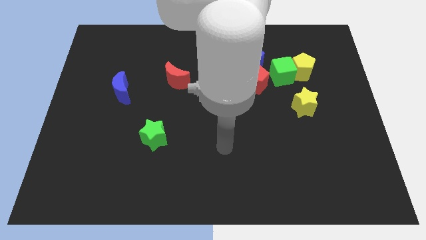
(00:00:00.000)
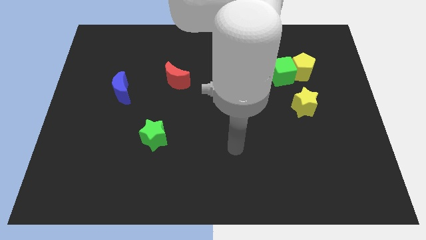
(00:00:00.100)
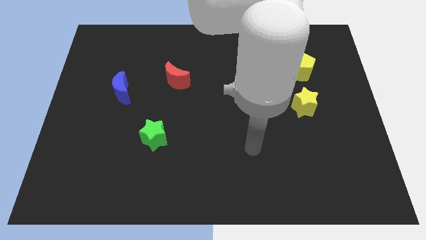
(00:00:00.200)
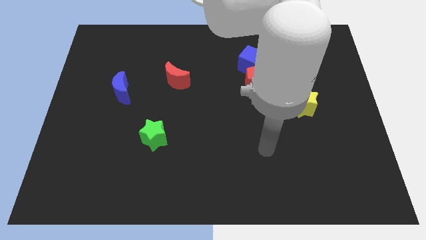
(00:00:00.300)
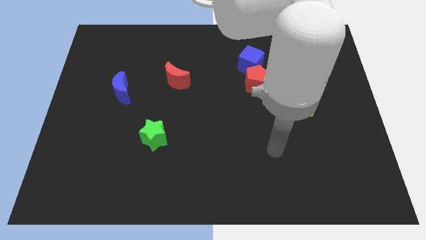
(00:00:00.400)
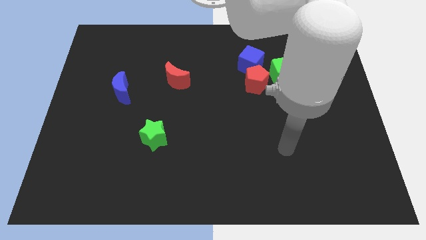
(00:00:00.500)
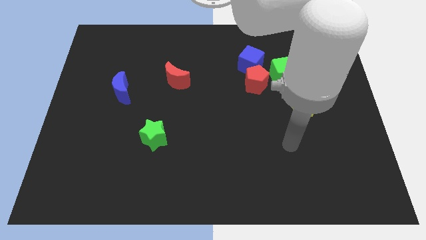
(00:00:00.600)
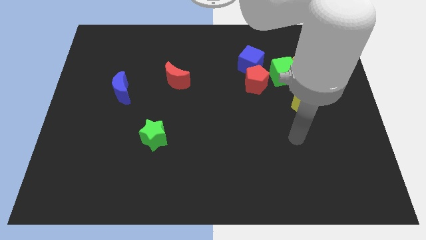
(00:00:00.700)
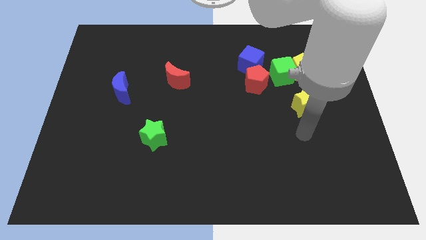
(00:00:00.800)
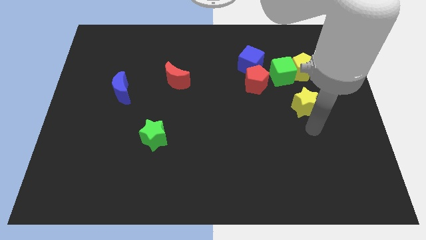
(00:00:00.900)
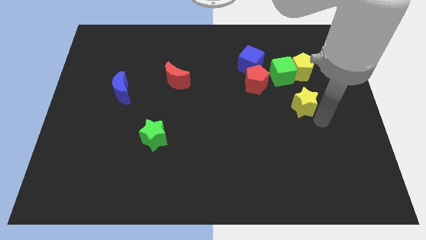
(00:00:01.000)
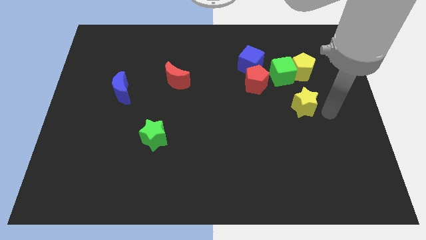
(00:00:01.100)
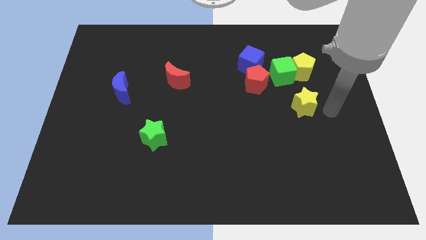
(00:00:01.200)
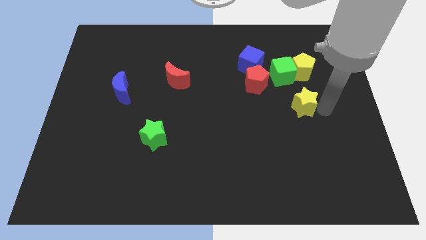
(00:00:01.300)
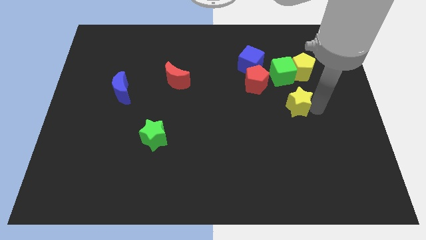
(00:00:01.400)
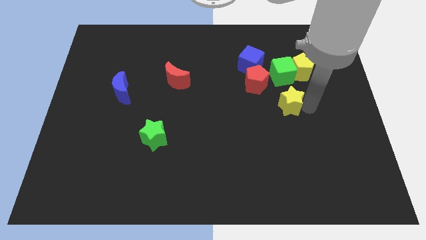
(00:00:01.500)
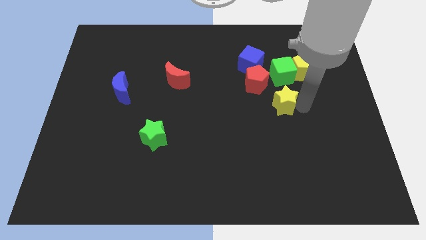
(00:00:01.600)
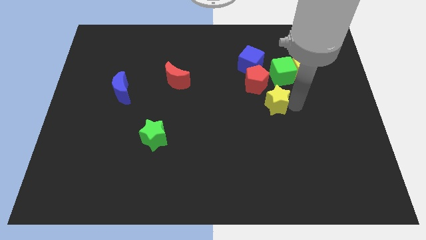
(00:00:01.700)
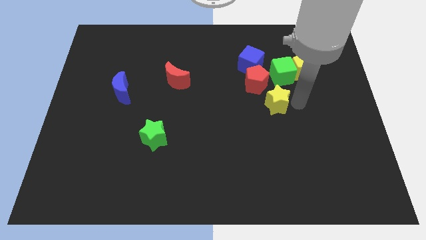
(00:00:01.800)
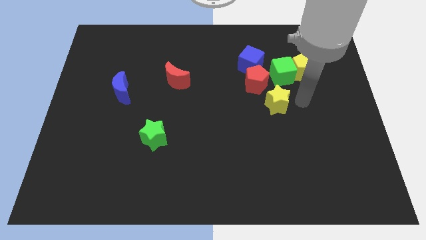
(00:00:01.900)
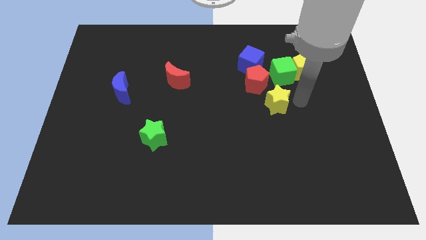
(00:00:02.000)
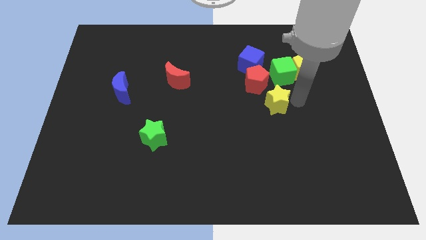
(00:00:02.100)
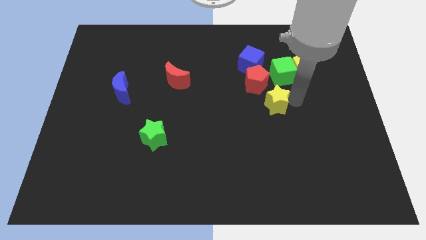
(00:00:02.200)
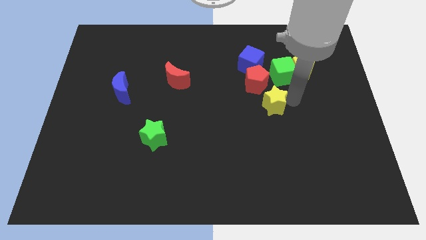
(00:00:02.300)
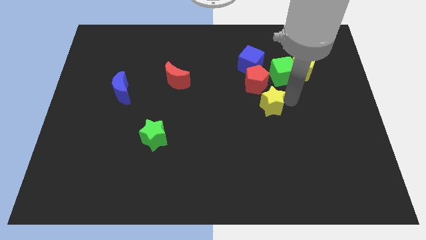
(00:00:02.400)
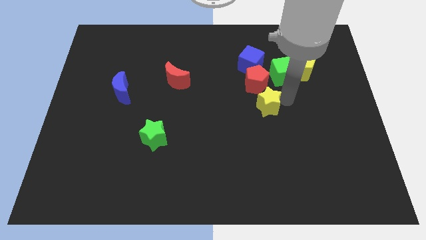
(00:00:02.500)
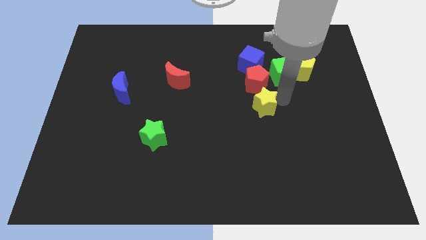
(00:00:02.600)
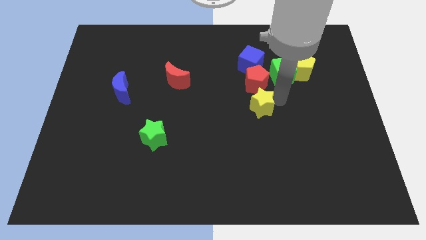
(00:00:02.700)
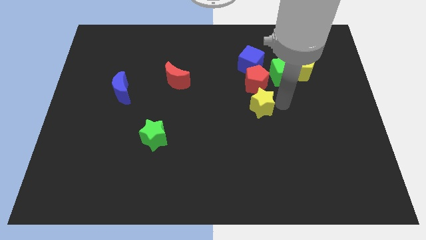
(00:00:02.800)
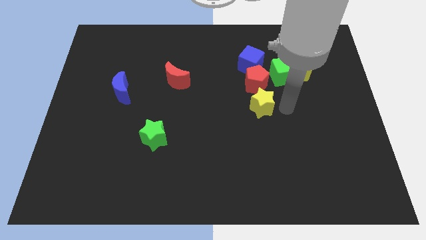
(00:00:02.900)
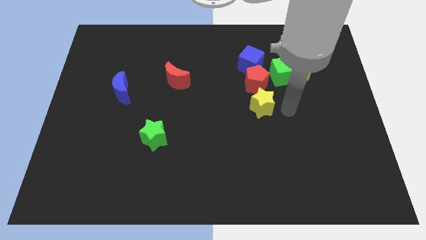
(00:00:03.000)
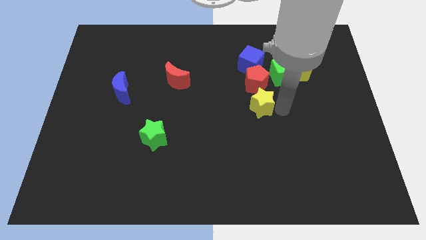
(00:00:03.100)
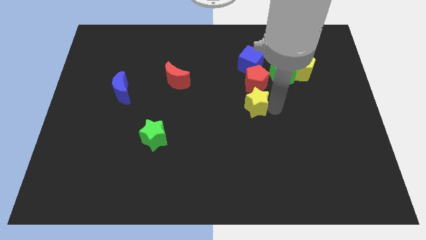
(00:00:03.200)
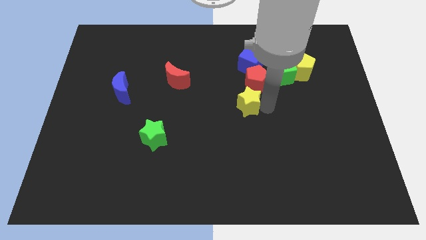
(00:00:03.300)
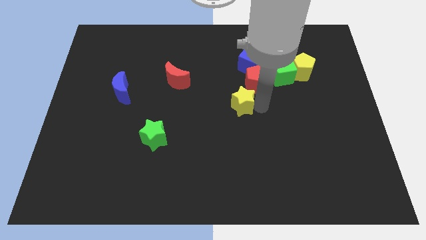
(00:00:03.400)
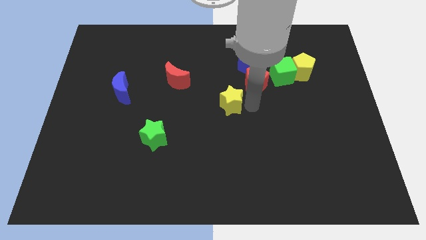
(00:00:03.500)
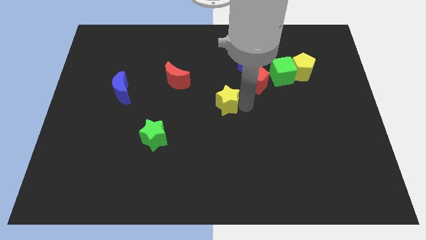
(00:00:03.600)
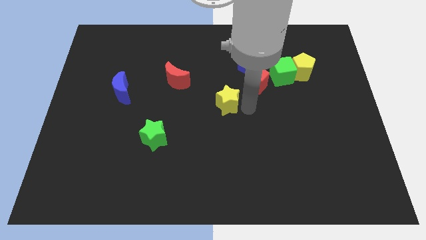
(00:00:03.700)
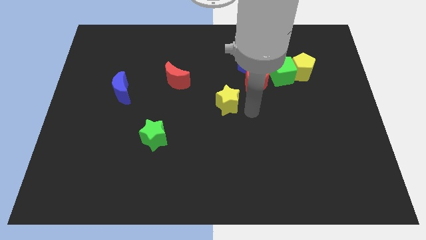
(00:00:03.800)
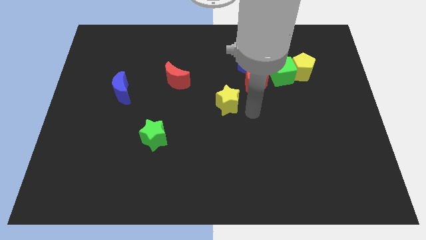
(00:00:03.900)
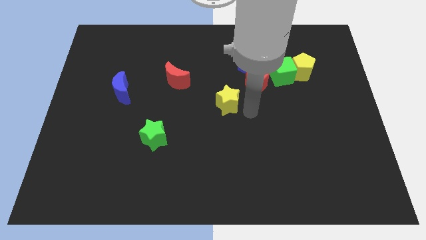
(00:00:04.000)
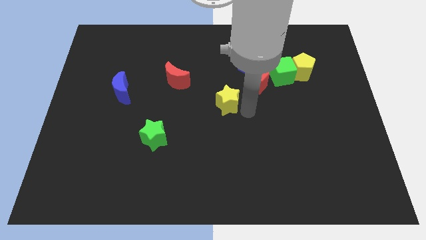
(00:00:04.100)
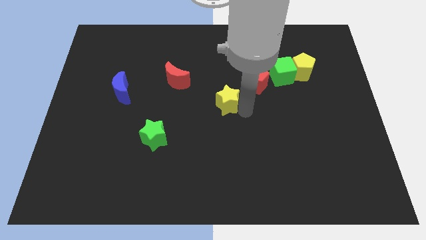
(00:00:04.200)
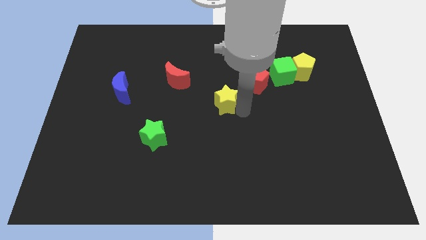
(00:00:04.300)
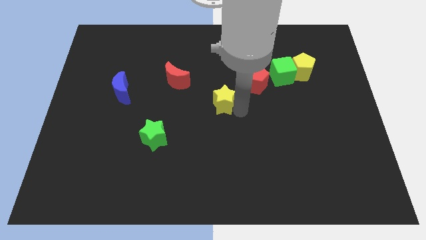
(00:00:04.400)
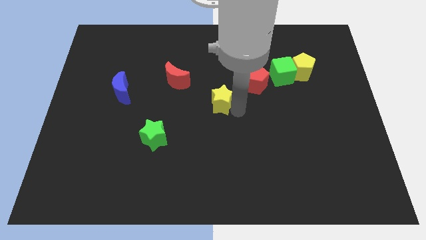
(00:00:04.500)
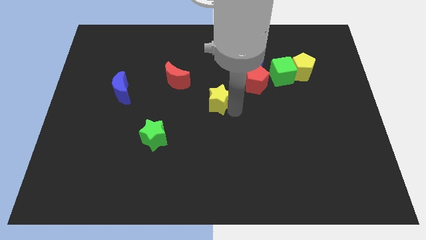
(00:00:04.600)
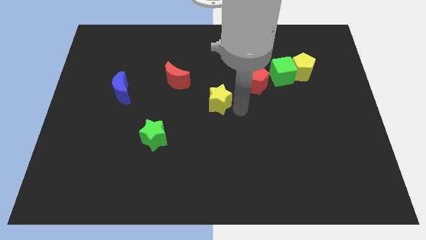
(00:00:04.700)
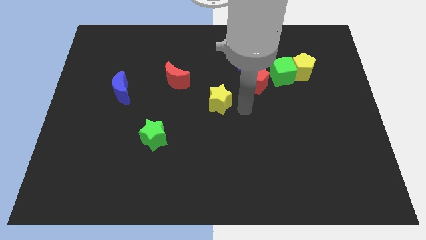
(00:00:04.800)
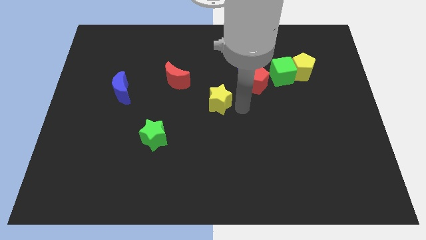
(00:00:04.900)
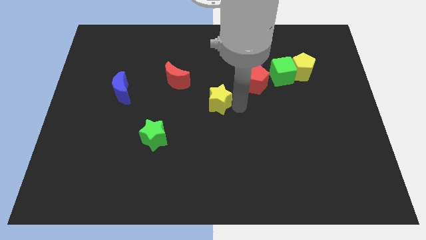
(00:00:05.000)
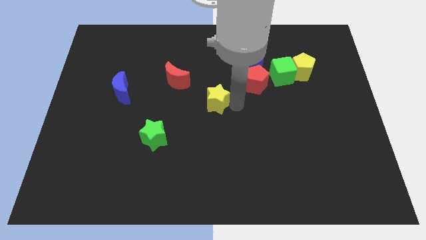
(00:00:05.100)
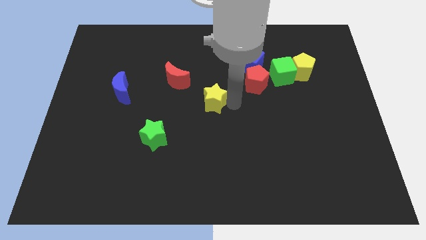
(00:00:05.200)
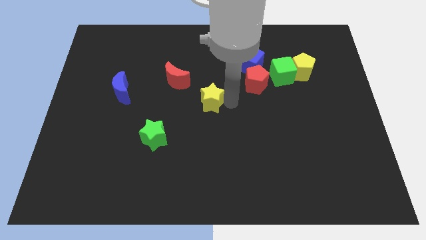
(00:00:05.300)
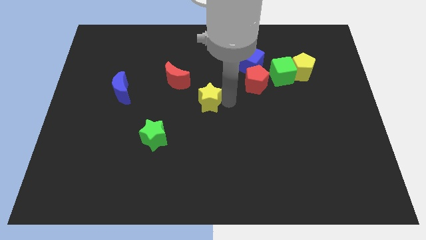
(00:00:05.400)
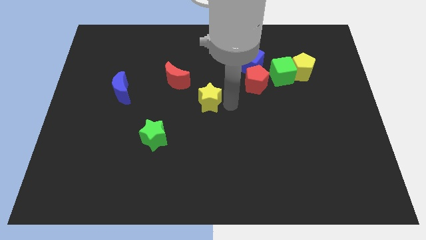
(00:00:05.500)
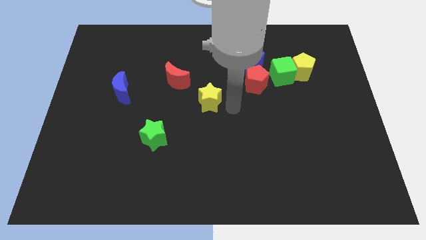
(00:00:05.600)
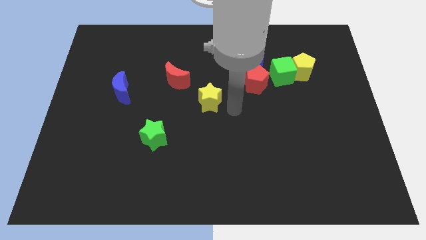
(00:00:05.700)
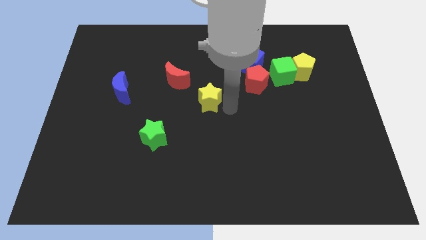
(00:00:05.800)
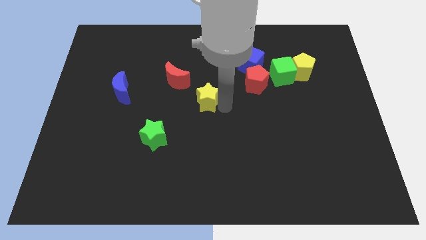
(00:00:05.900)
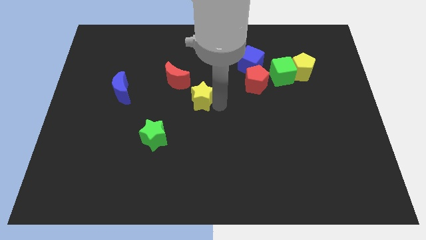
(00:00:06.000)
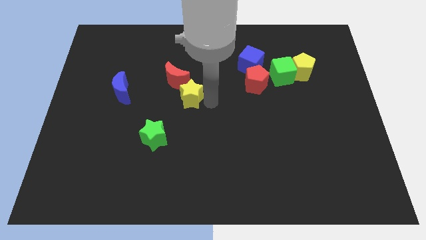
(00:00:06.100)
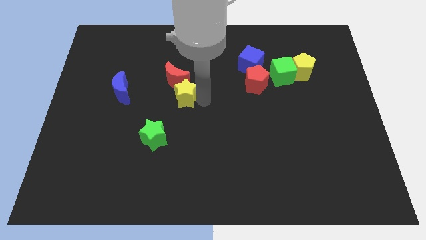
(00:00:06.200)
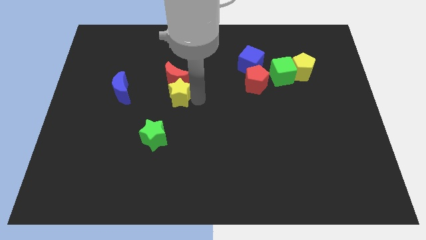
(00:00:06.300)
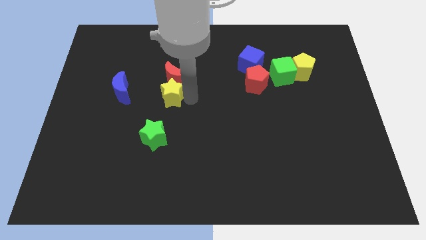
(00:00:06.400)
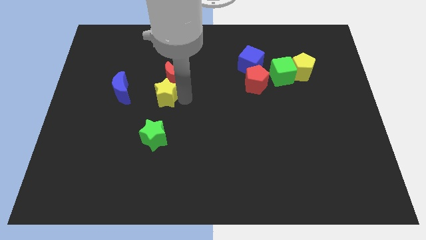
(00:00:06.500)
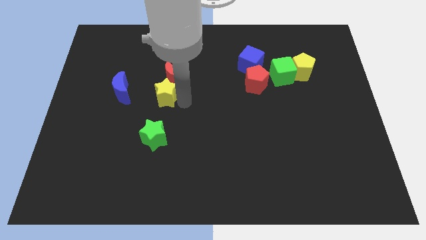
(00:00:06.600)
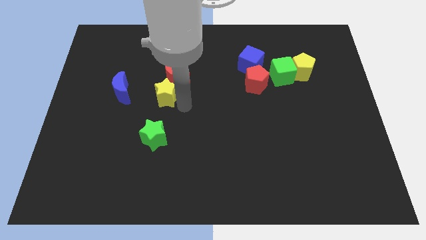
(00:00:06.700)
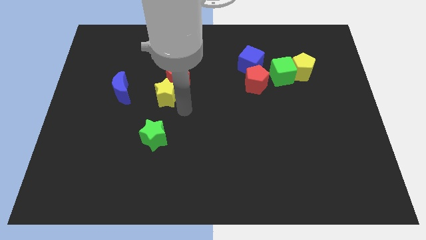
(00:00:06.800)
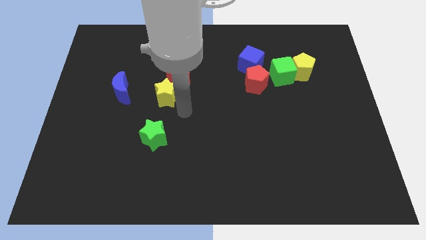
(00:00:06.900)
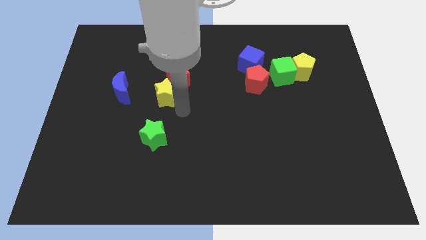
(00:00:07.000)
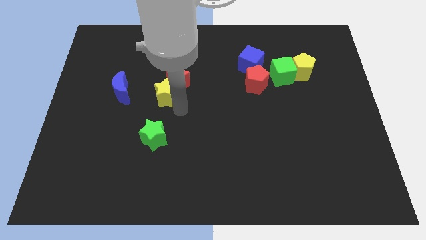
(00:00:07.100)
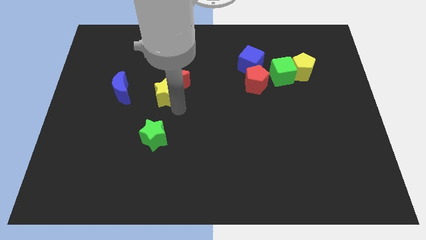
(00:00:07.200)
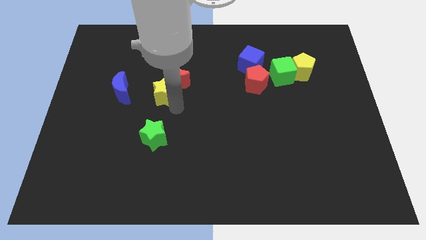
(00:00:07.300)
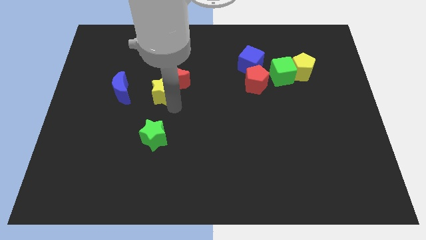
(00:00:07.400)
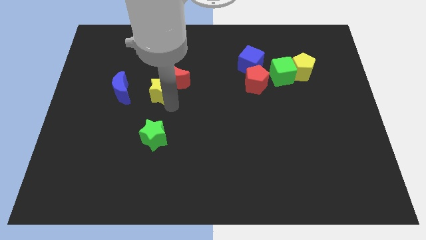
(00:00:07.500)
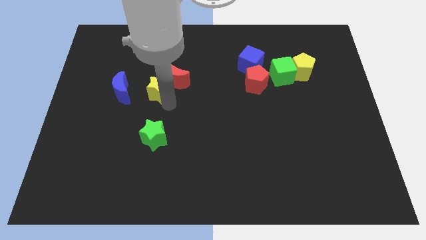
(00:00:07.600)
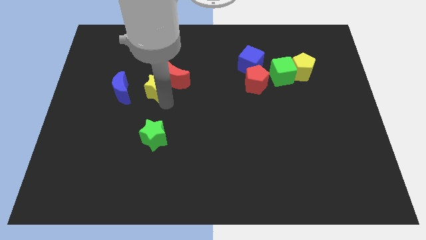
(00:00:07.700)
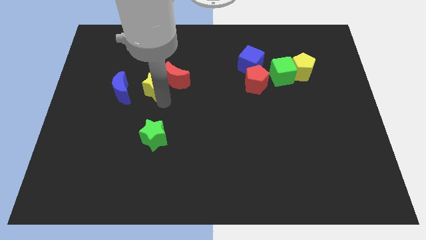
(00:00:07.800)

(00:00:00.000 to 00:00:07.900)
slide the yellow star to the top right side of the blue moon
